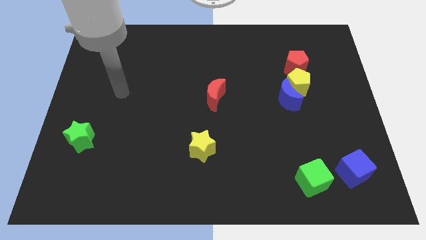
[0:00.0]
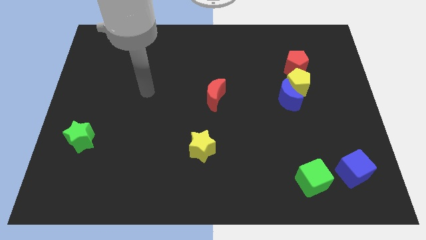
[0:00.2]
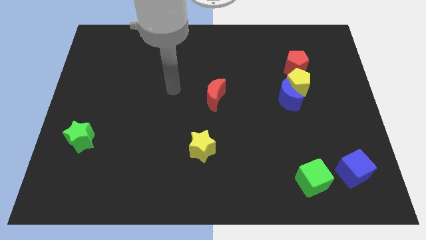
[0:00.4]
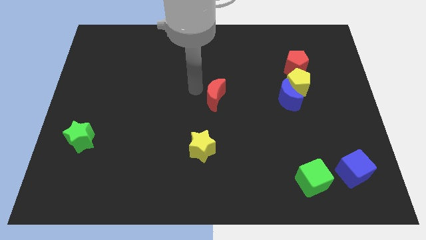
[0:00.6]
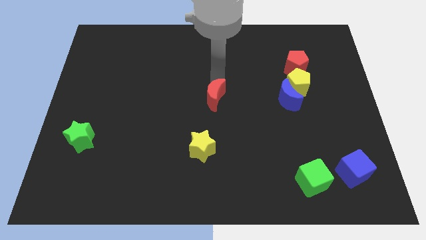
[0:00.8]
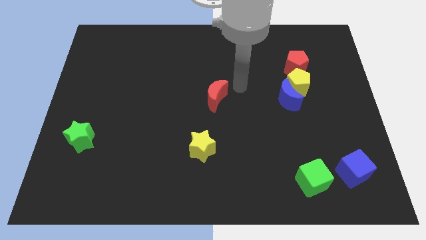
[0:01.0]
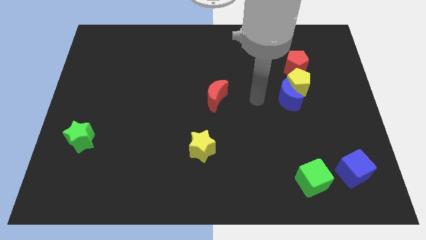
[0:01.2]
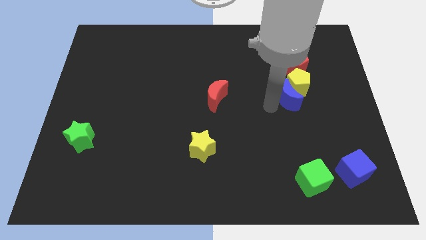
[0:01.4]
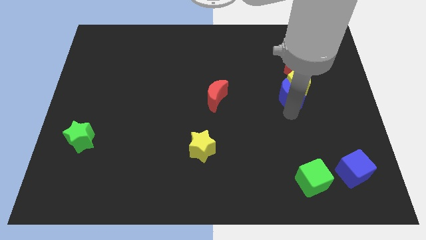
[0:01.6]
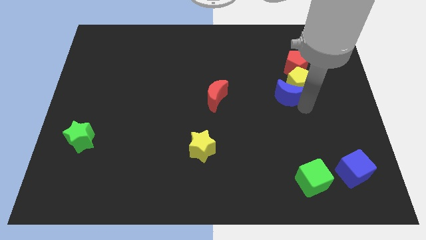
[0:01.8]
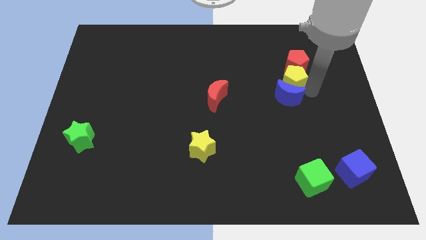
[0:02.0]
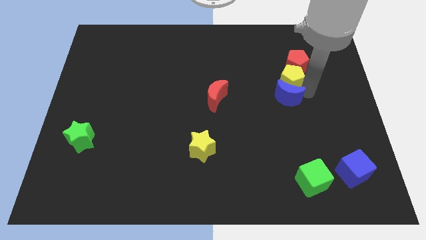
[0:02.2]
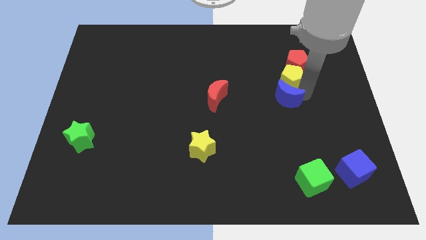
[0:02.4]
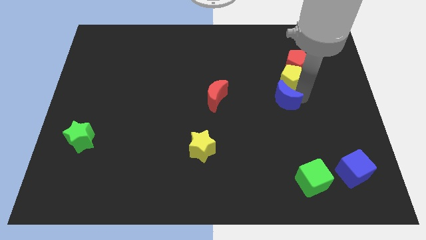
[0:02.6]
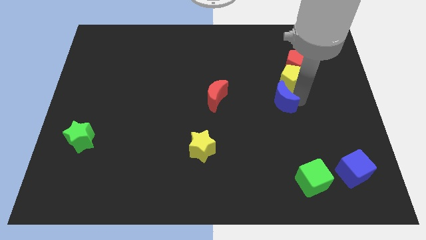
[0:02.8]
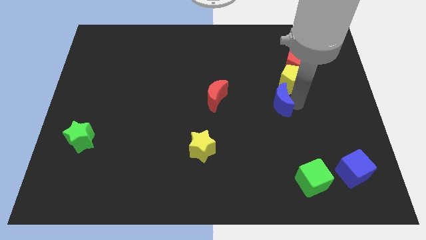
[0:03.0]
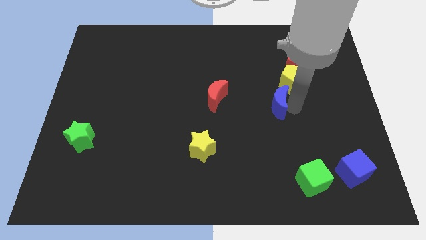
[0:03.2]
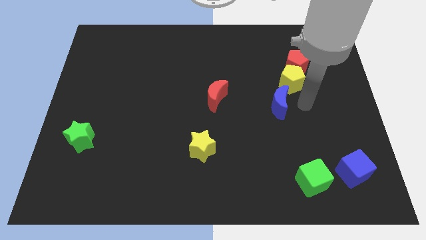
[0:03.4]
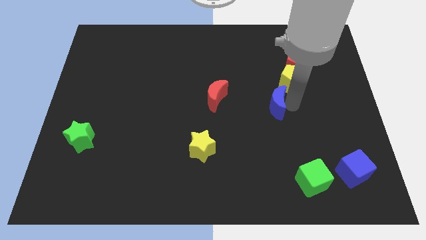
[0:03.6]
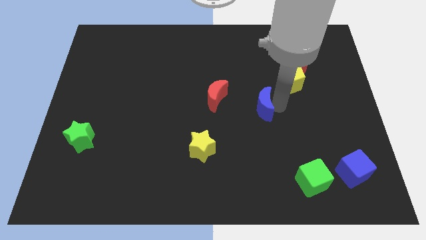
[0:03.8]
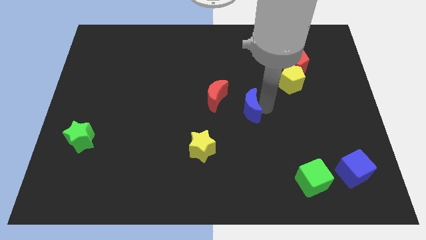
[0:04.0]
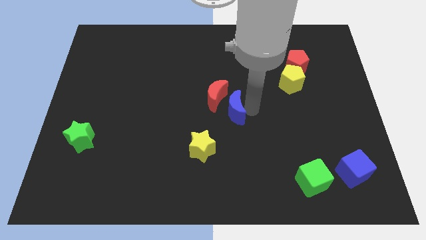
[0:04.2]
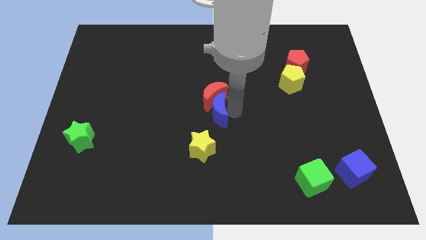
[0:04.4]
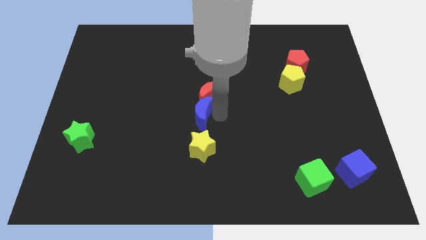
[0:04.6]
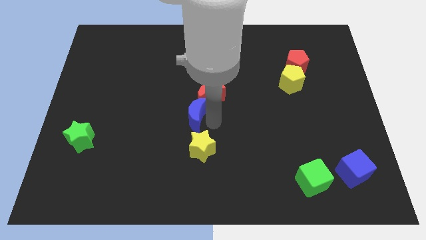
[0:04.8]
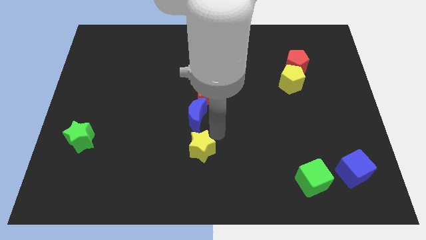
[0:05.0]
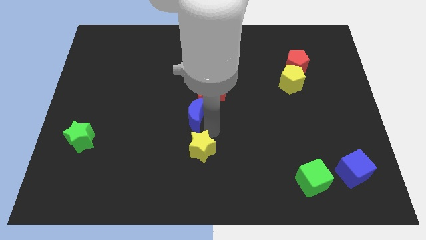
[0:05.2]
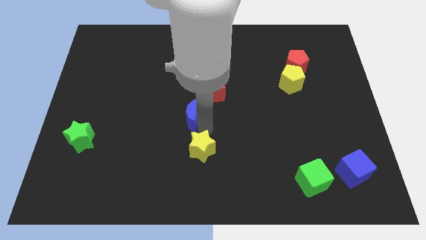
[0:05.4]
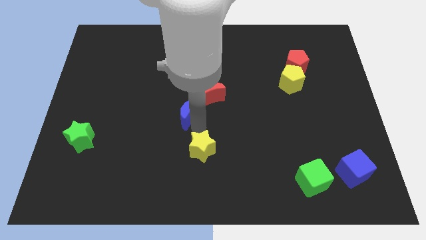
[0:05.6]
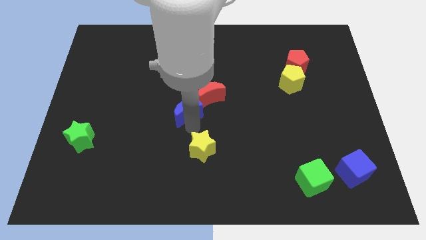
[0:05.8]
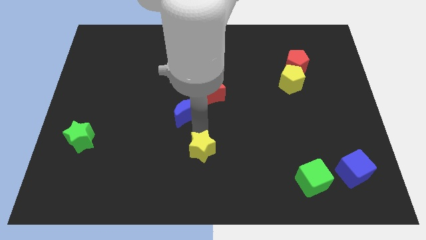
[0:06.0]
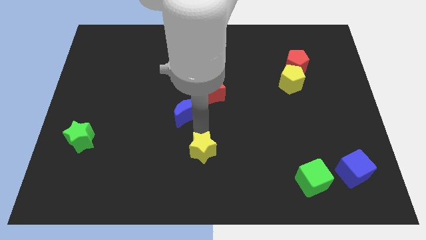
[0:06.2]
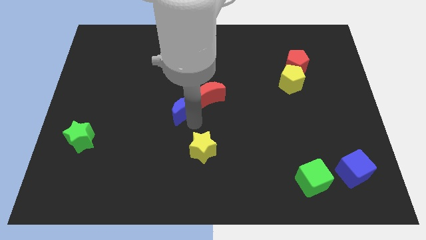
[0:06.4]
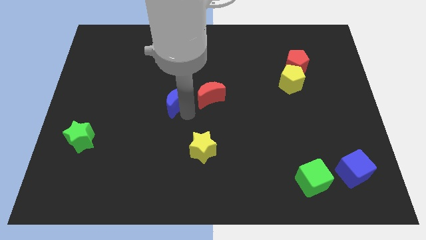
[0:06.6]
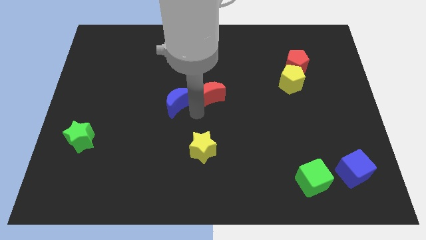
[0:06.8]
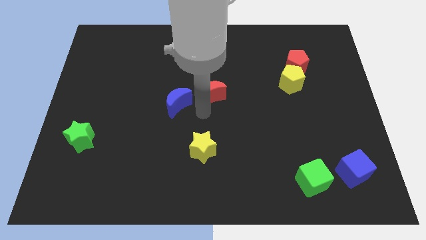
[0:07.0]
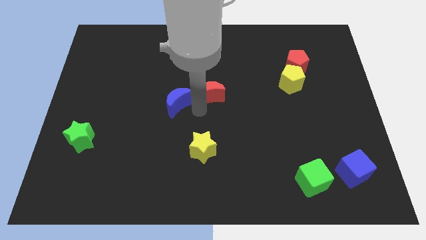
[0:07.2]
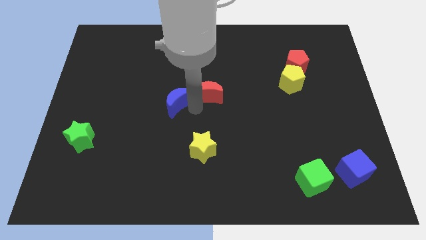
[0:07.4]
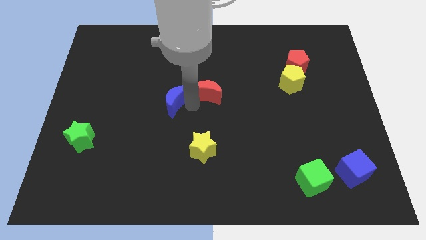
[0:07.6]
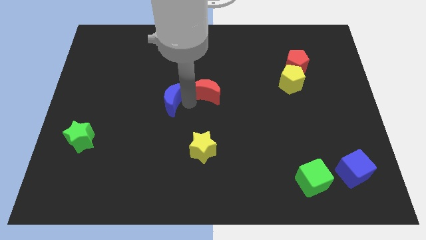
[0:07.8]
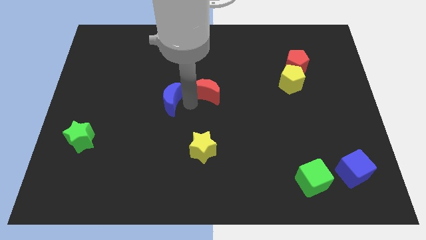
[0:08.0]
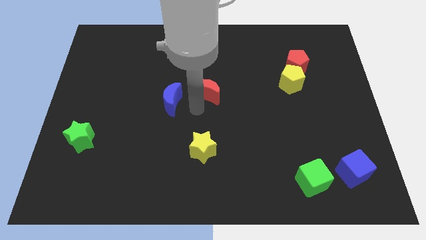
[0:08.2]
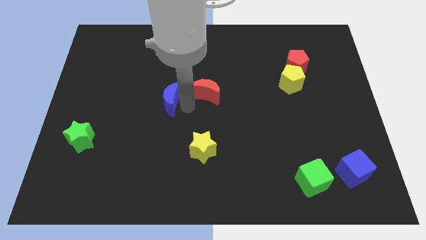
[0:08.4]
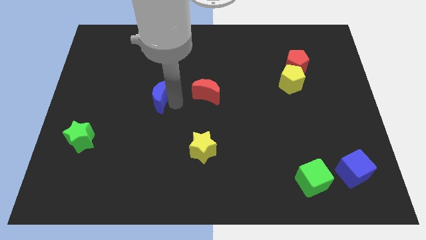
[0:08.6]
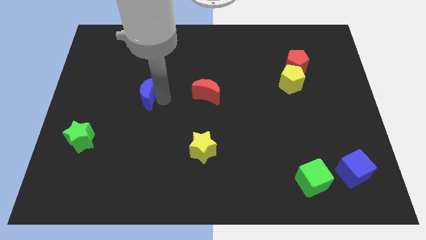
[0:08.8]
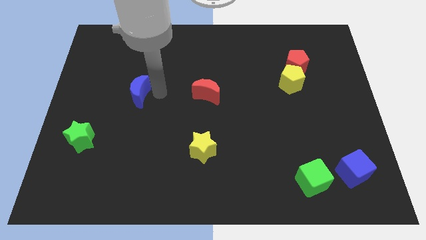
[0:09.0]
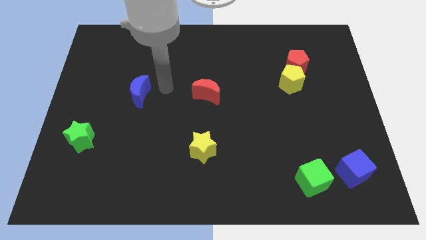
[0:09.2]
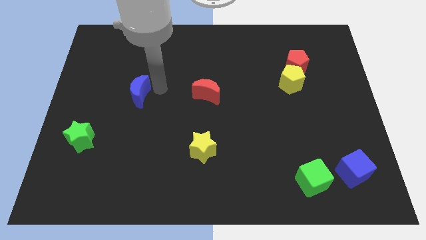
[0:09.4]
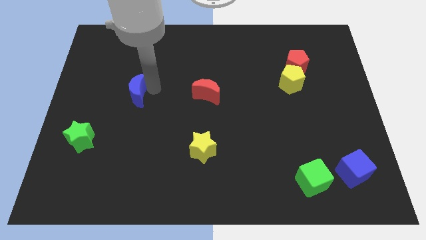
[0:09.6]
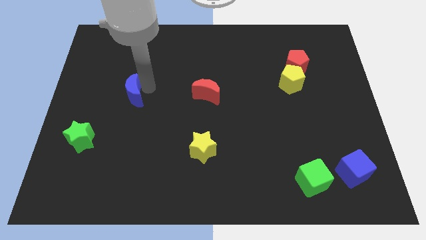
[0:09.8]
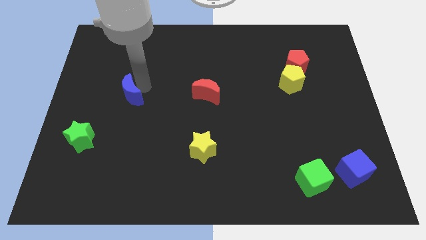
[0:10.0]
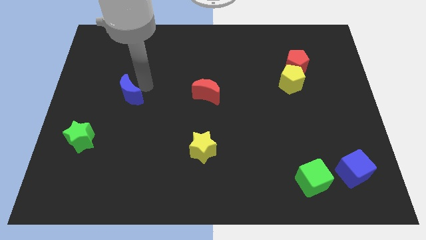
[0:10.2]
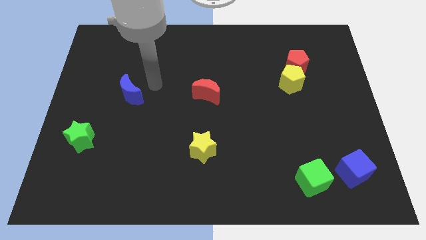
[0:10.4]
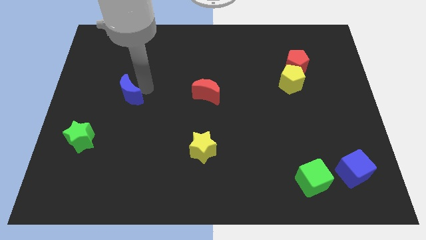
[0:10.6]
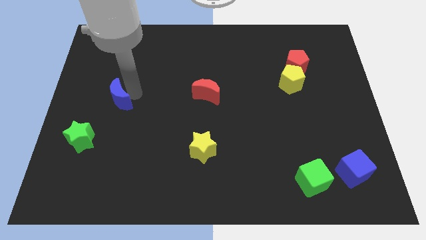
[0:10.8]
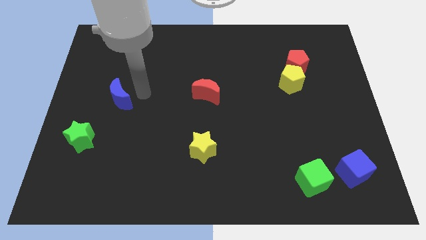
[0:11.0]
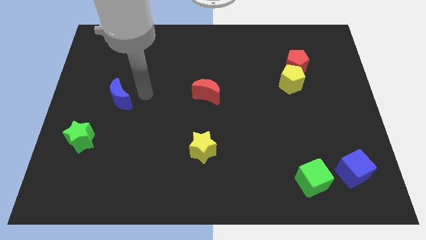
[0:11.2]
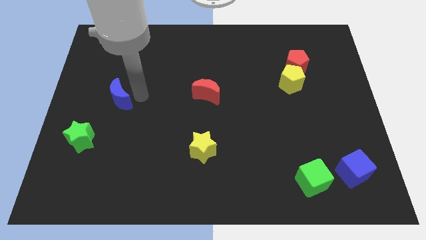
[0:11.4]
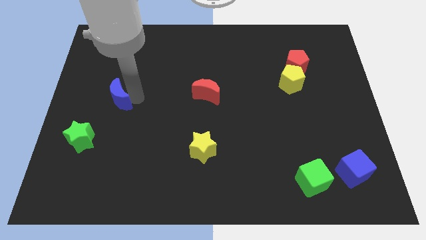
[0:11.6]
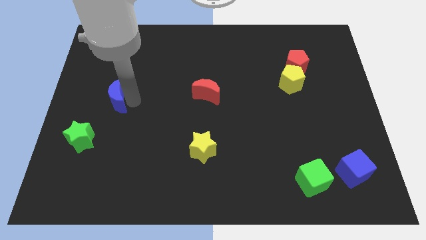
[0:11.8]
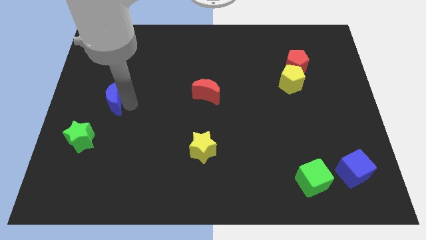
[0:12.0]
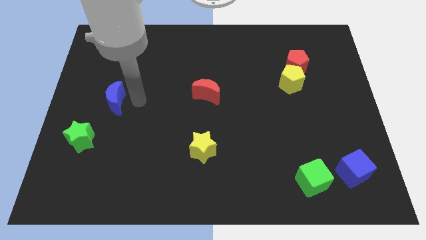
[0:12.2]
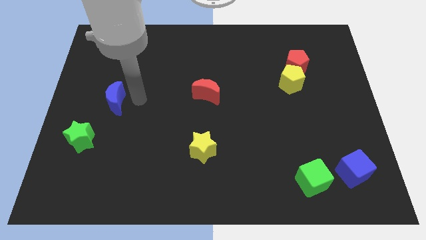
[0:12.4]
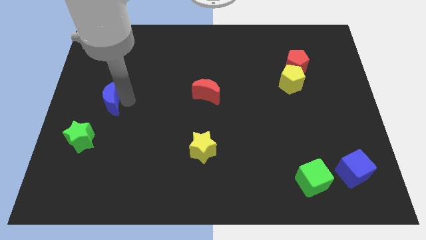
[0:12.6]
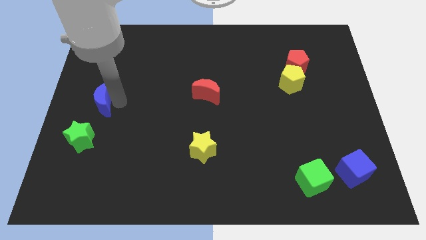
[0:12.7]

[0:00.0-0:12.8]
put the blue moon to the center left
